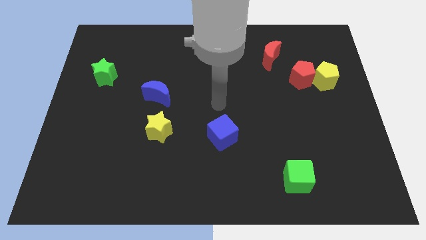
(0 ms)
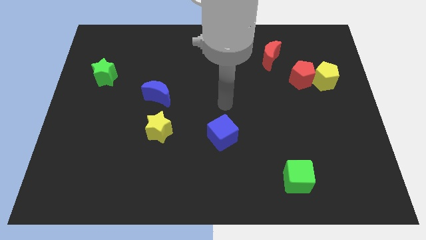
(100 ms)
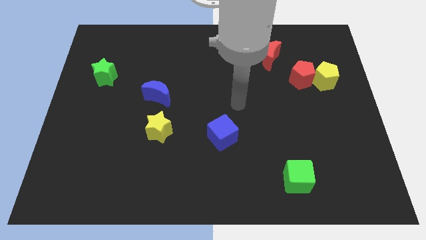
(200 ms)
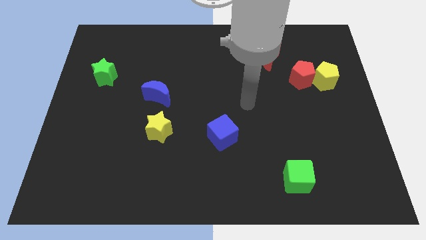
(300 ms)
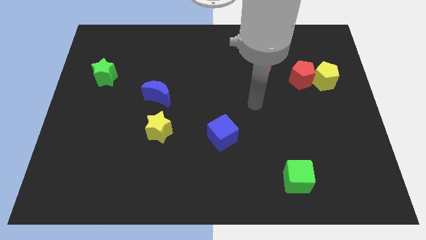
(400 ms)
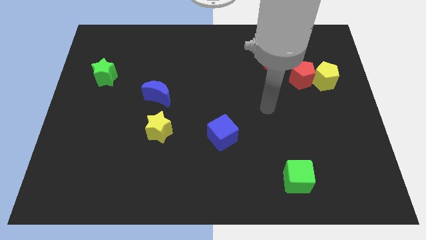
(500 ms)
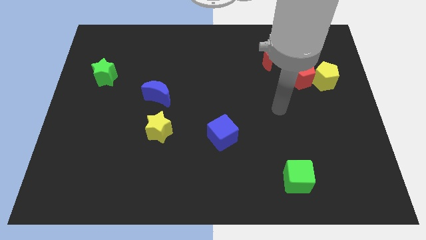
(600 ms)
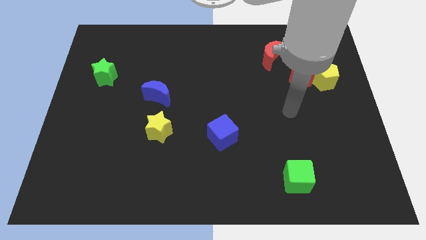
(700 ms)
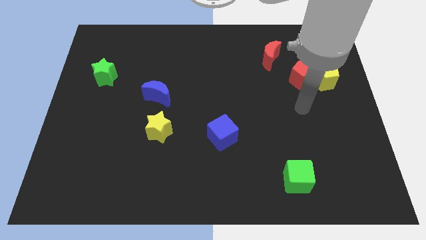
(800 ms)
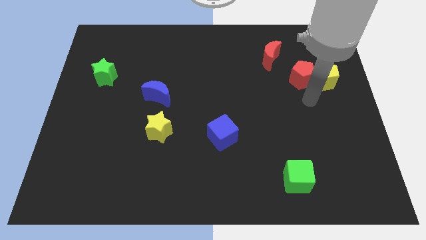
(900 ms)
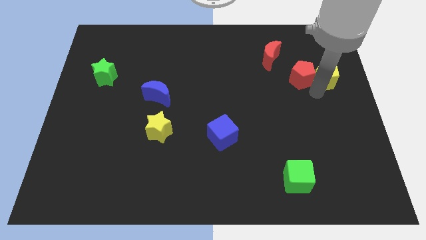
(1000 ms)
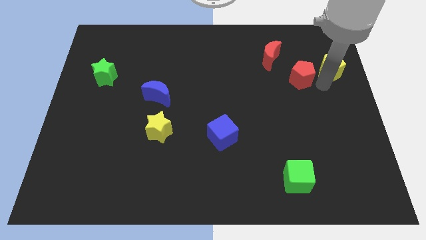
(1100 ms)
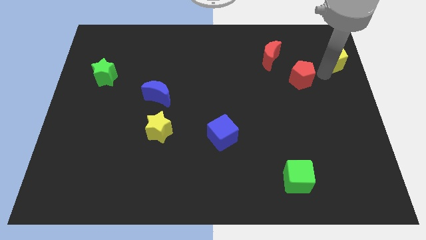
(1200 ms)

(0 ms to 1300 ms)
separate the red pentagon from the yellow pentagon

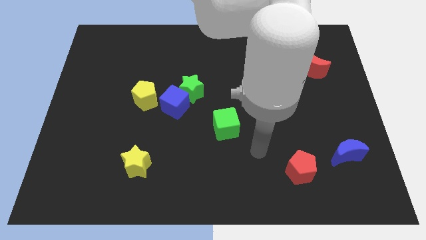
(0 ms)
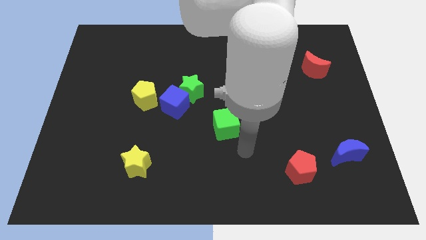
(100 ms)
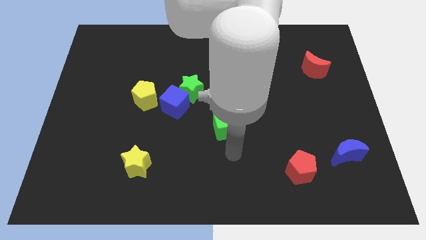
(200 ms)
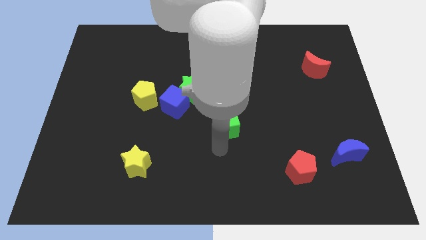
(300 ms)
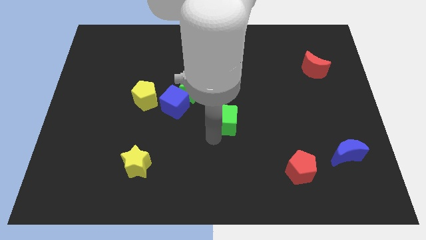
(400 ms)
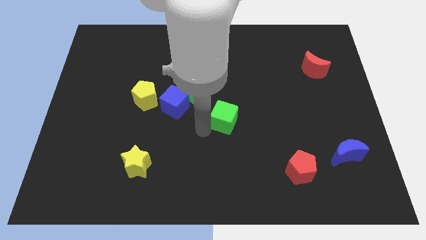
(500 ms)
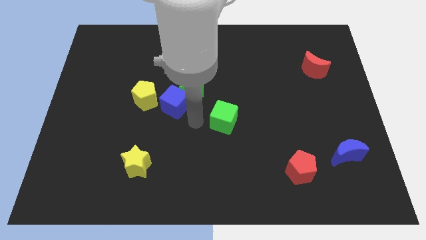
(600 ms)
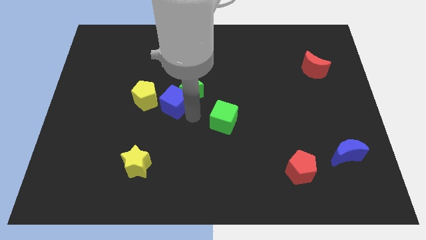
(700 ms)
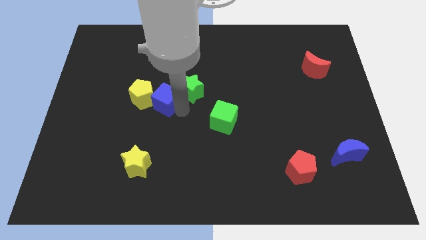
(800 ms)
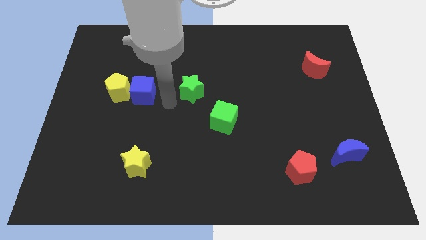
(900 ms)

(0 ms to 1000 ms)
move the green star away from the blue cube

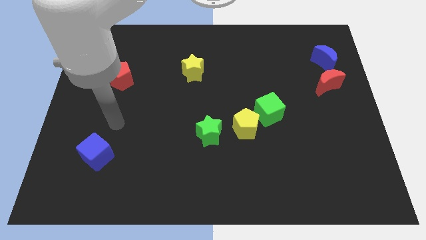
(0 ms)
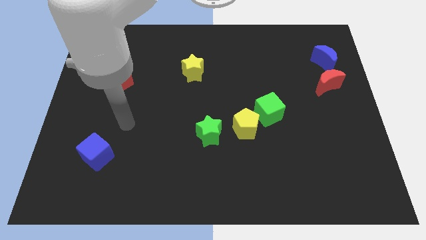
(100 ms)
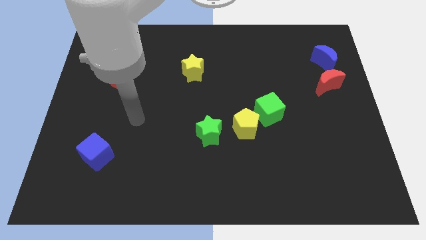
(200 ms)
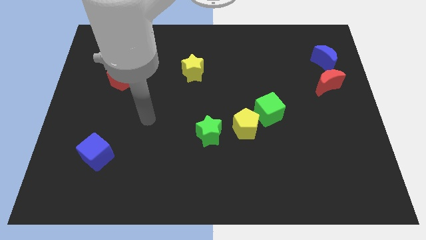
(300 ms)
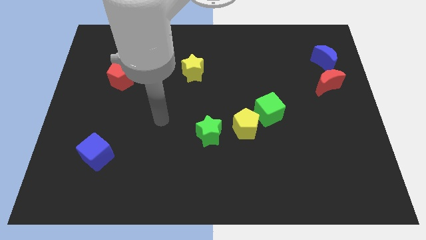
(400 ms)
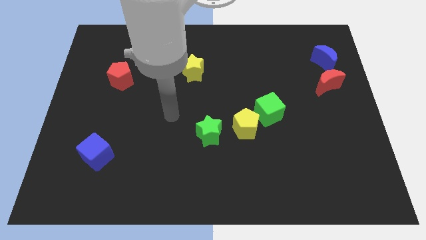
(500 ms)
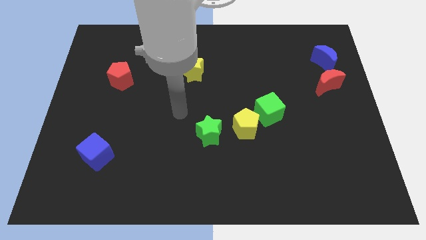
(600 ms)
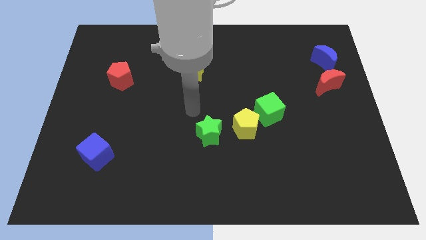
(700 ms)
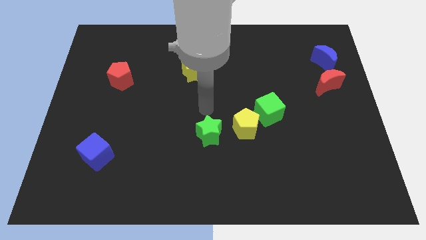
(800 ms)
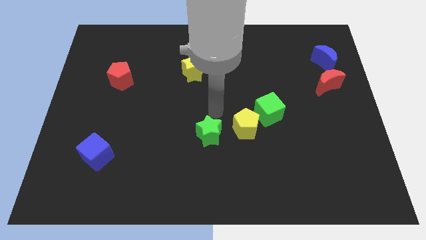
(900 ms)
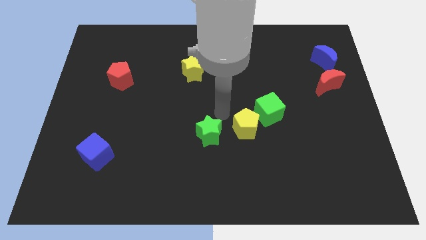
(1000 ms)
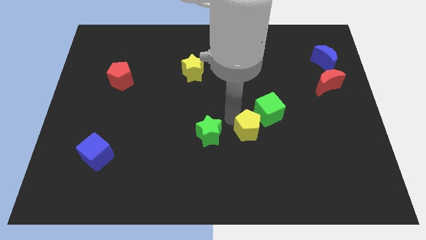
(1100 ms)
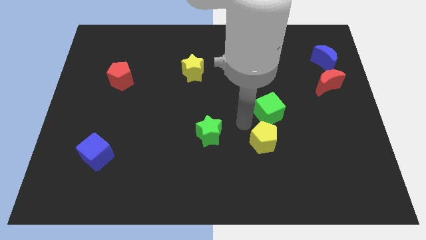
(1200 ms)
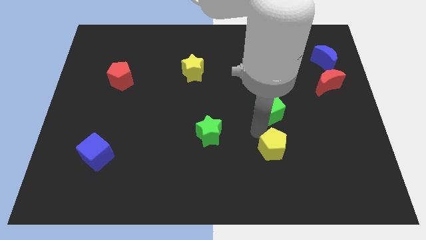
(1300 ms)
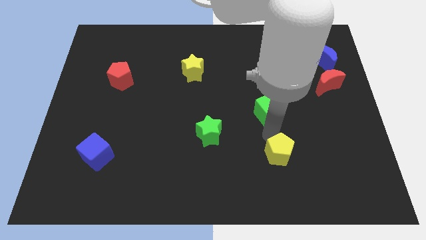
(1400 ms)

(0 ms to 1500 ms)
pull the green cube apart from the yellow pentagon

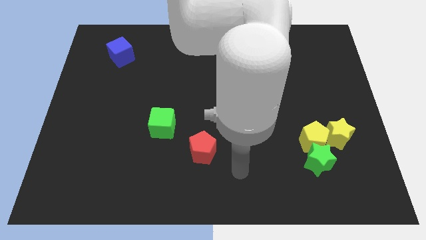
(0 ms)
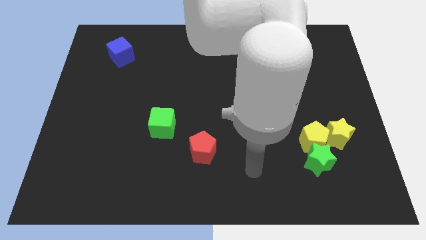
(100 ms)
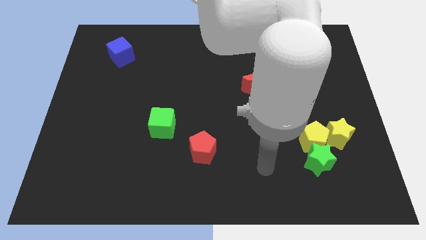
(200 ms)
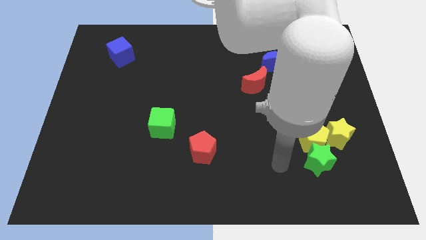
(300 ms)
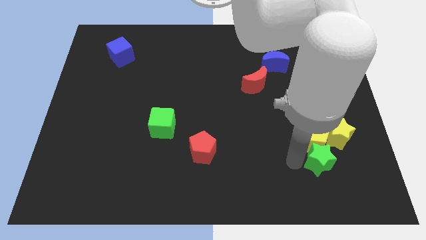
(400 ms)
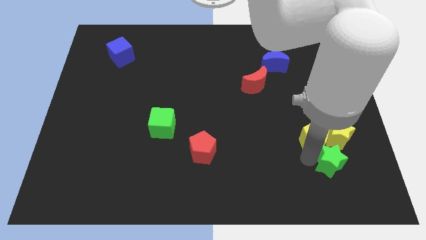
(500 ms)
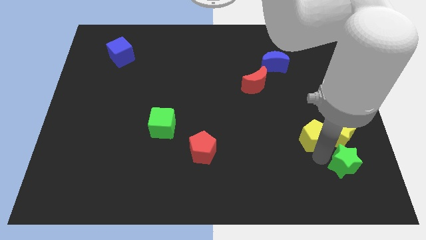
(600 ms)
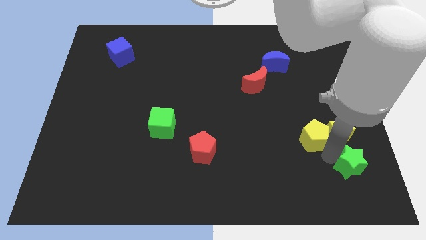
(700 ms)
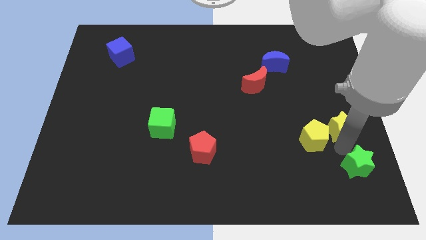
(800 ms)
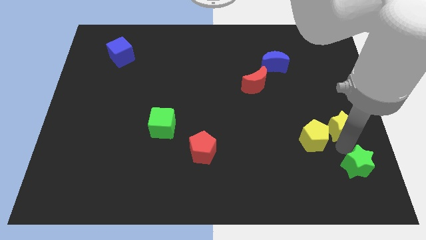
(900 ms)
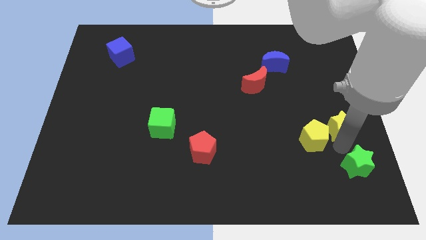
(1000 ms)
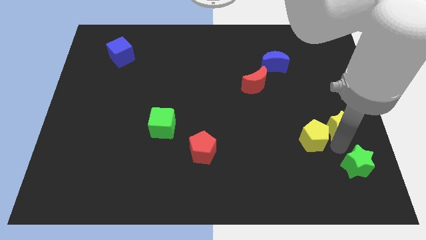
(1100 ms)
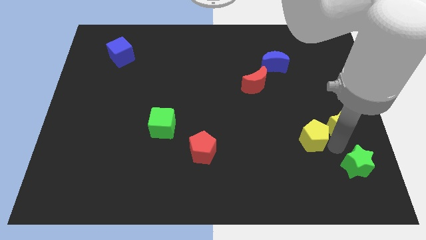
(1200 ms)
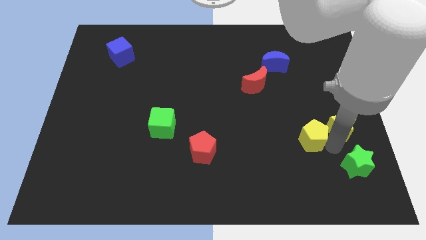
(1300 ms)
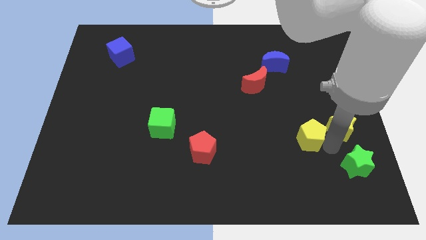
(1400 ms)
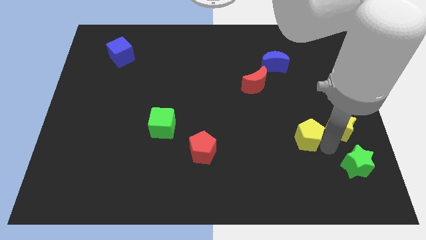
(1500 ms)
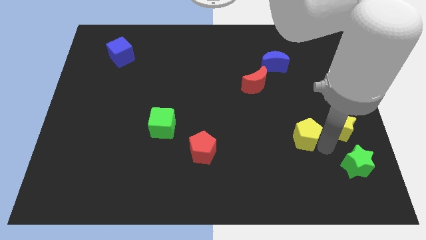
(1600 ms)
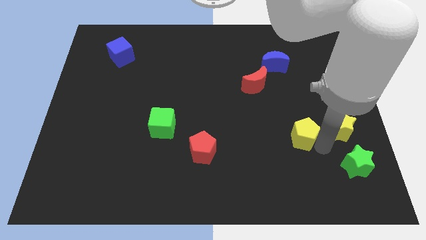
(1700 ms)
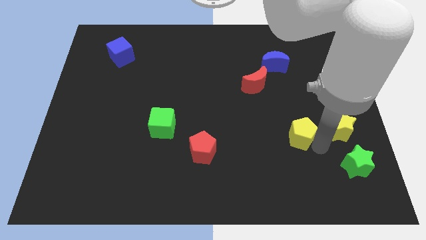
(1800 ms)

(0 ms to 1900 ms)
move the yellow pentagon away from the green star and yellow star

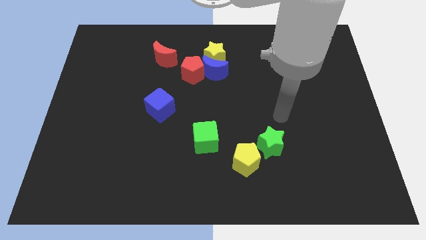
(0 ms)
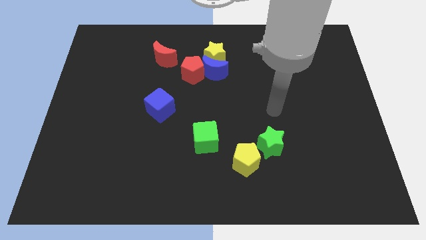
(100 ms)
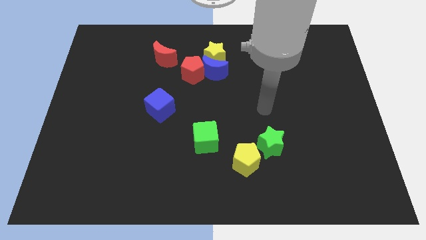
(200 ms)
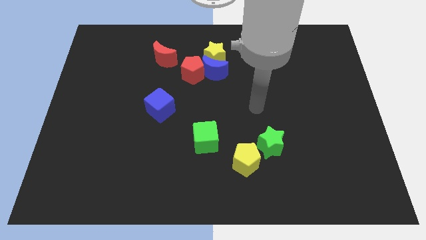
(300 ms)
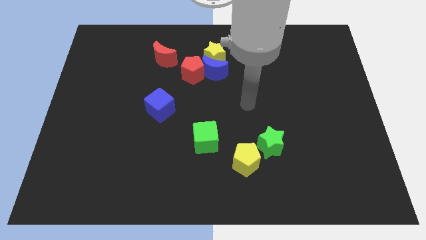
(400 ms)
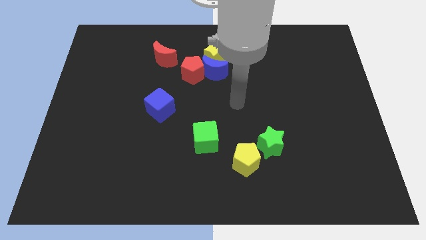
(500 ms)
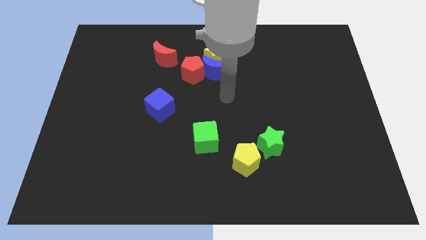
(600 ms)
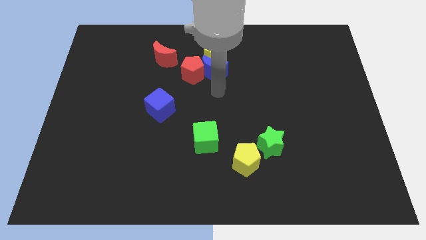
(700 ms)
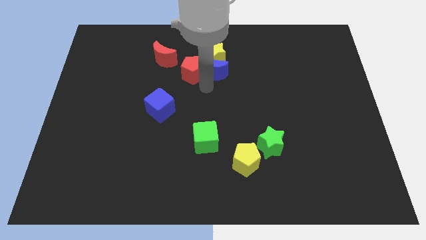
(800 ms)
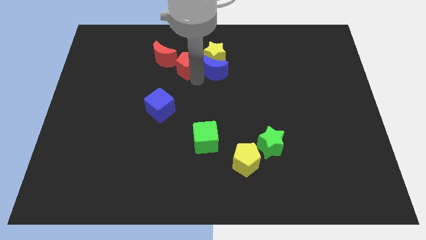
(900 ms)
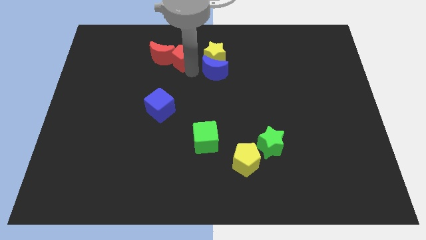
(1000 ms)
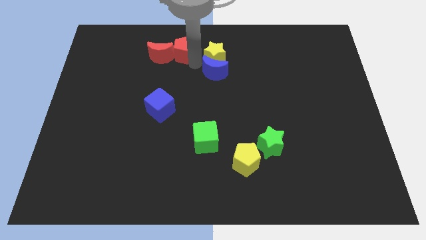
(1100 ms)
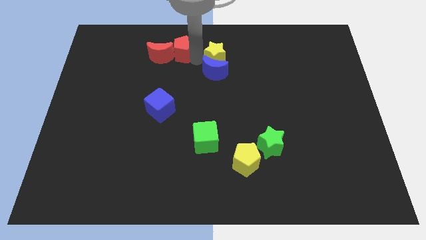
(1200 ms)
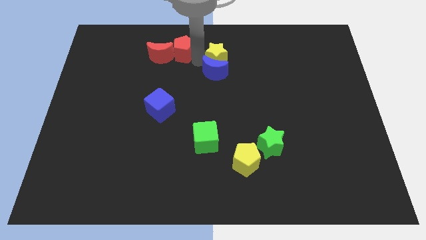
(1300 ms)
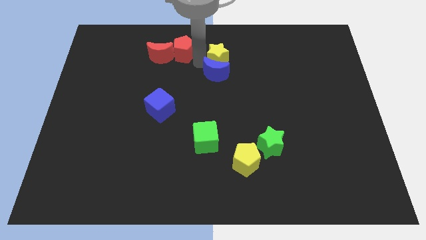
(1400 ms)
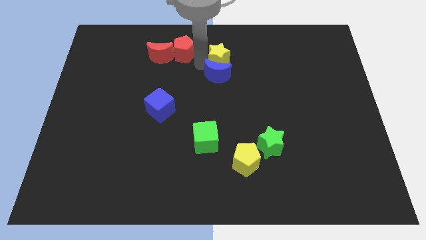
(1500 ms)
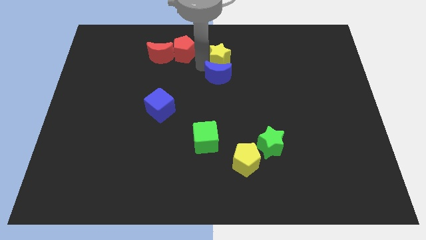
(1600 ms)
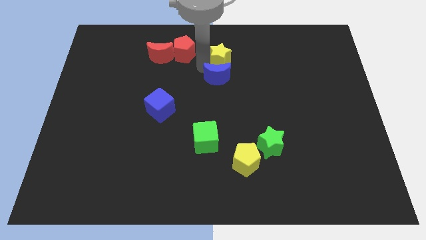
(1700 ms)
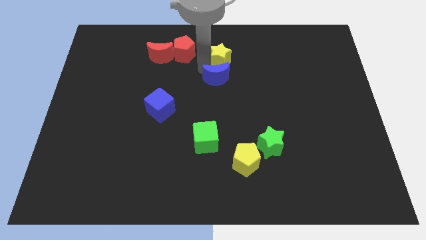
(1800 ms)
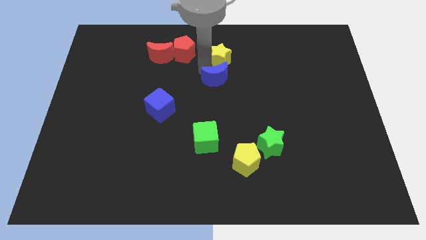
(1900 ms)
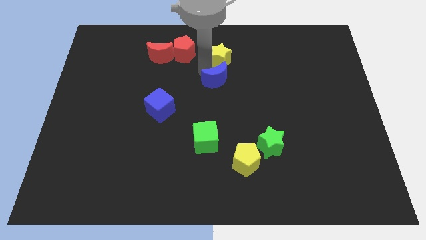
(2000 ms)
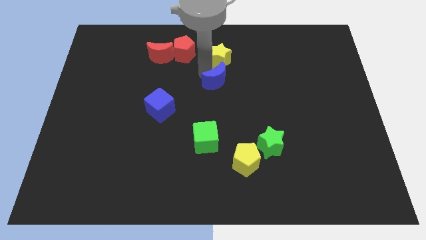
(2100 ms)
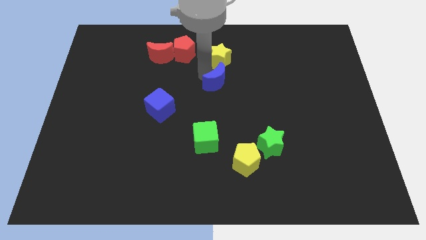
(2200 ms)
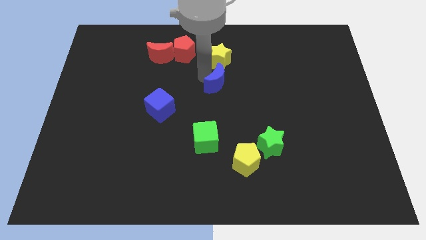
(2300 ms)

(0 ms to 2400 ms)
separate the blue moon from the red pentagon and yellow star

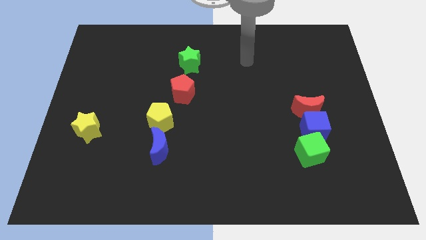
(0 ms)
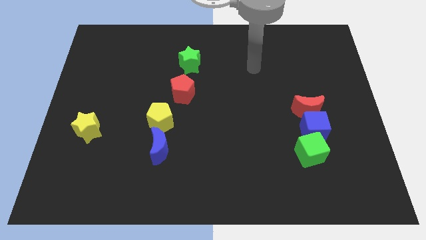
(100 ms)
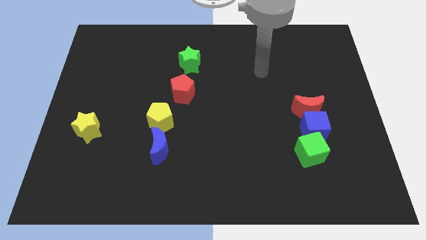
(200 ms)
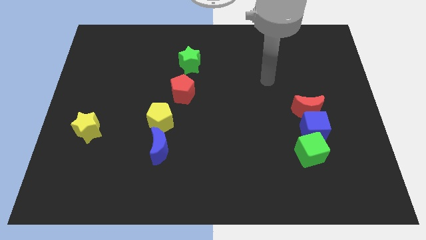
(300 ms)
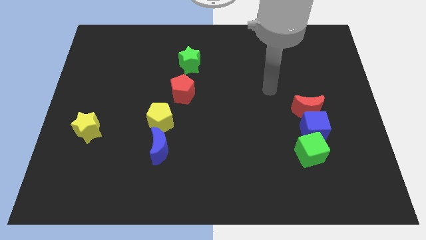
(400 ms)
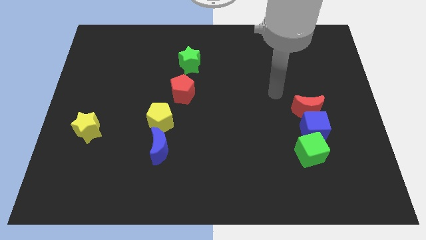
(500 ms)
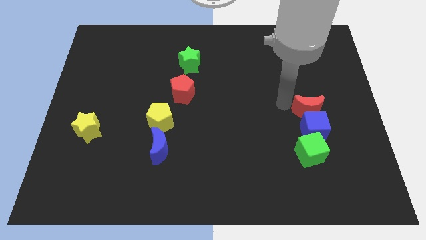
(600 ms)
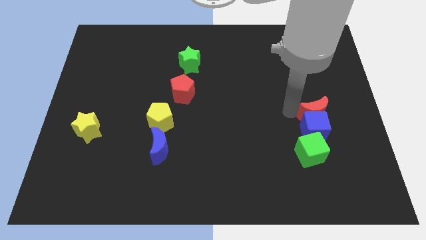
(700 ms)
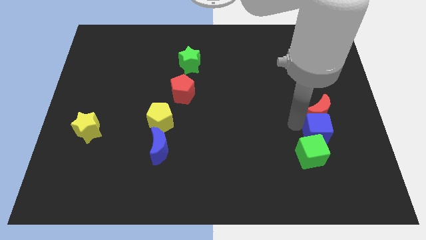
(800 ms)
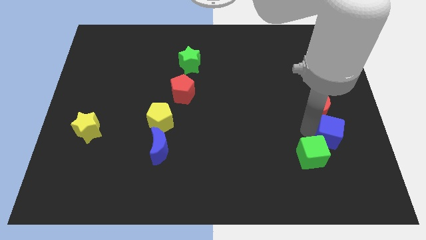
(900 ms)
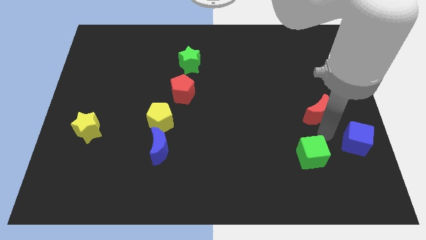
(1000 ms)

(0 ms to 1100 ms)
pull the red moon apart from the blue cube
